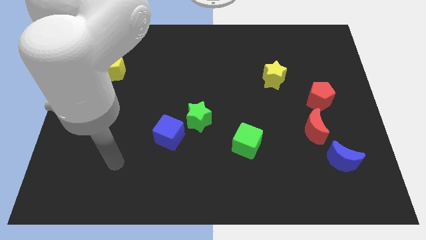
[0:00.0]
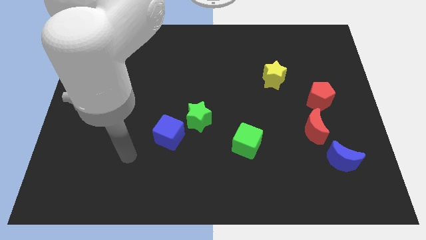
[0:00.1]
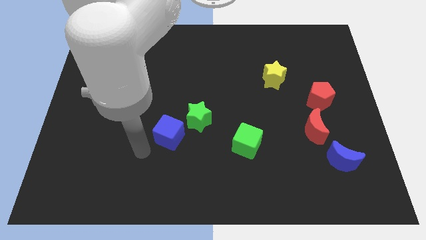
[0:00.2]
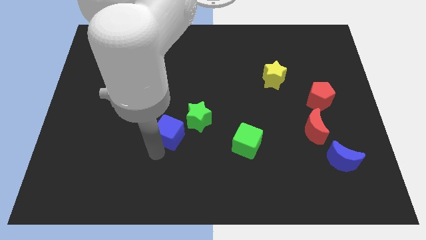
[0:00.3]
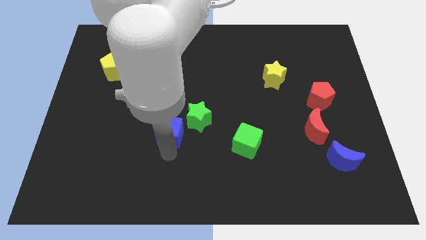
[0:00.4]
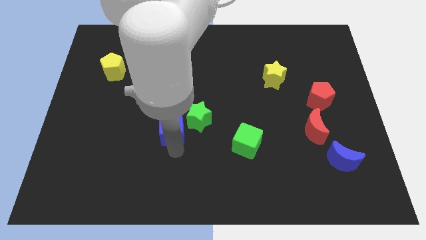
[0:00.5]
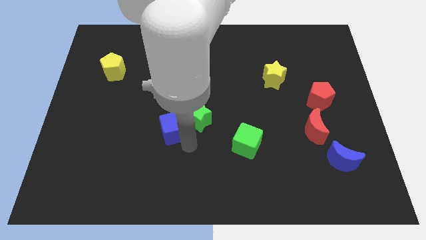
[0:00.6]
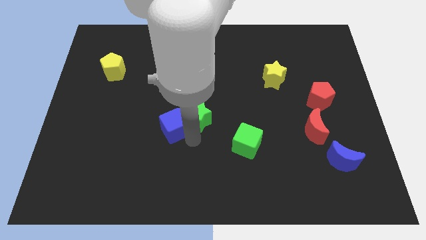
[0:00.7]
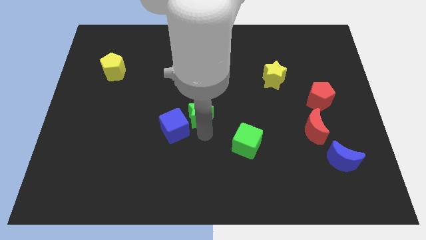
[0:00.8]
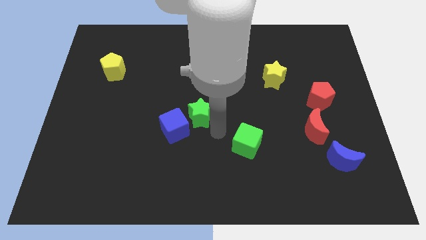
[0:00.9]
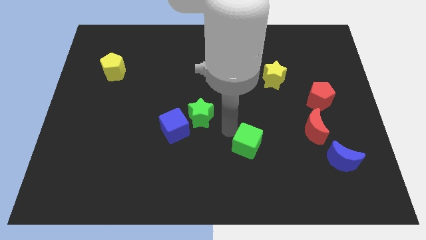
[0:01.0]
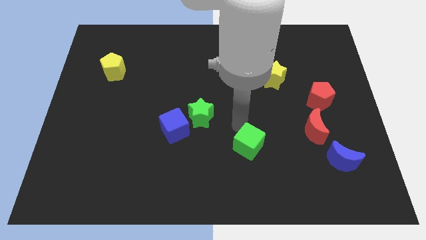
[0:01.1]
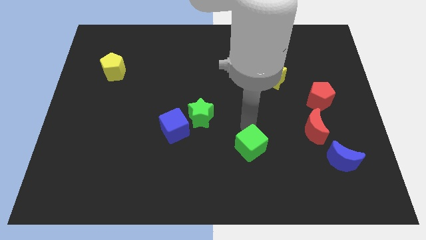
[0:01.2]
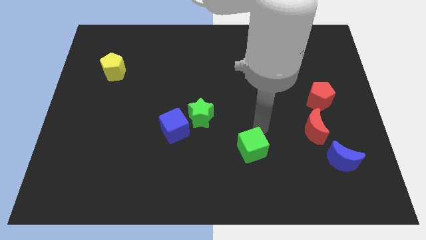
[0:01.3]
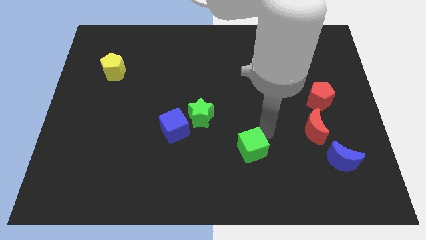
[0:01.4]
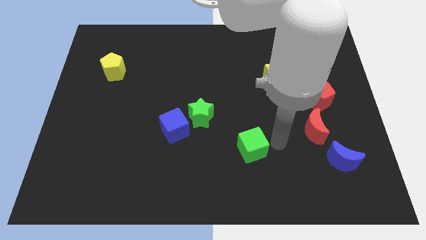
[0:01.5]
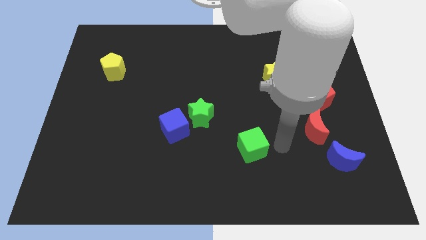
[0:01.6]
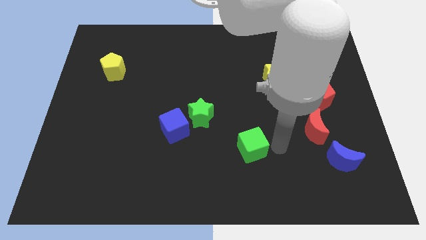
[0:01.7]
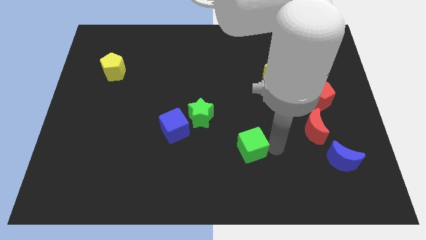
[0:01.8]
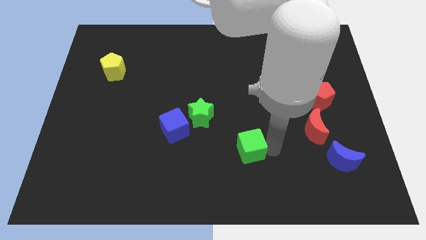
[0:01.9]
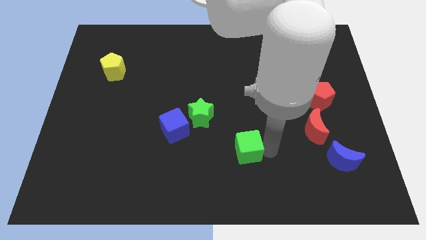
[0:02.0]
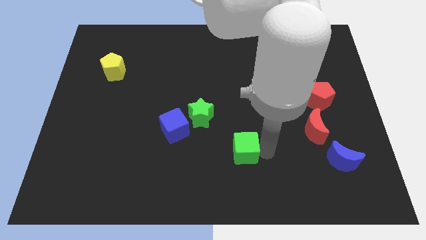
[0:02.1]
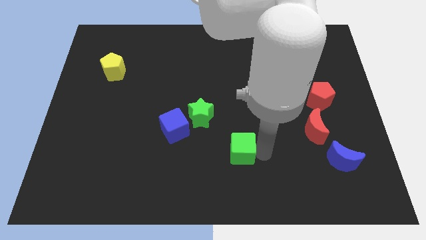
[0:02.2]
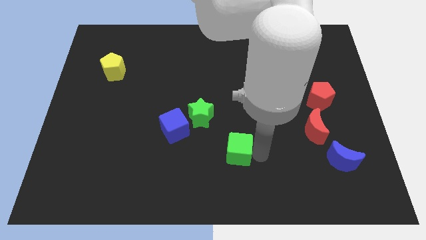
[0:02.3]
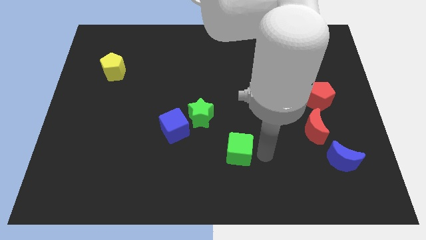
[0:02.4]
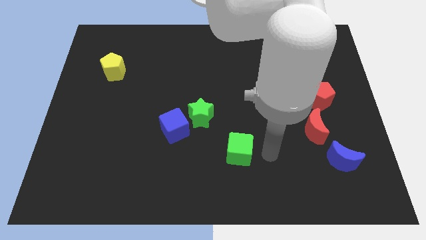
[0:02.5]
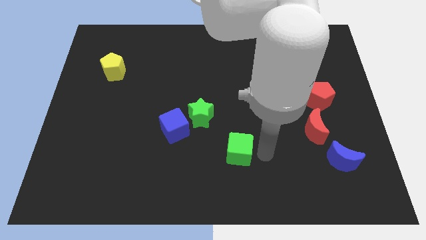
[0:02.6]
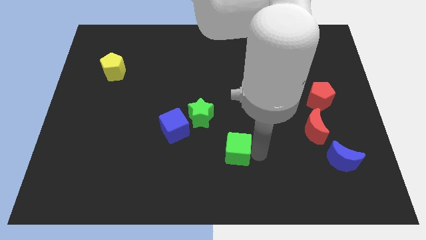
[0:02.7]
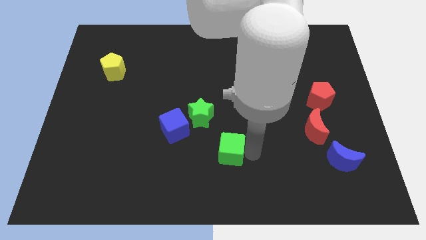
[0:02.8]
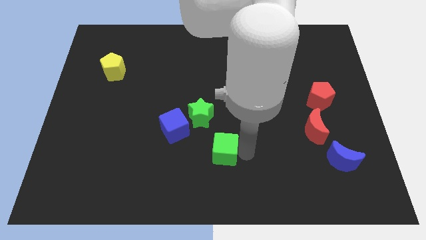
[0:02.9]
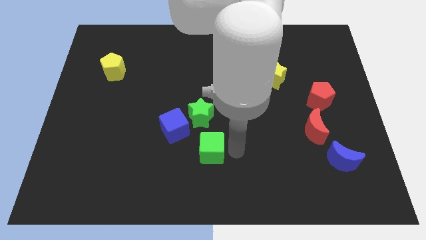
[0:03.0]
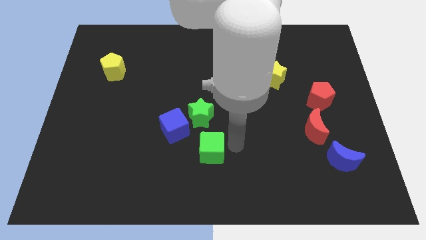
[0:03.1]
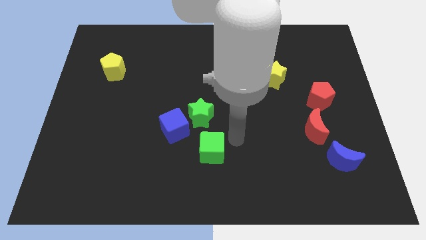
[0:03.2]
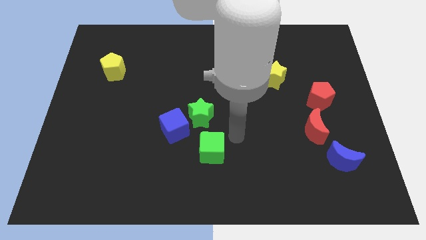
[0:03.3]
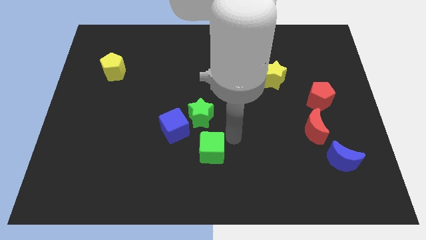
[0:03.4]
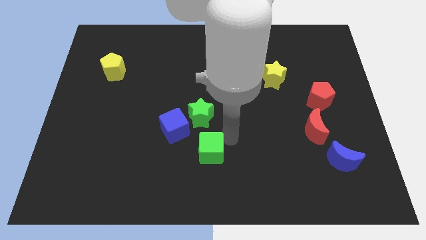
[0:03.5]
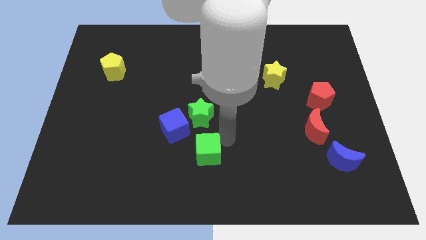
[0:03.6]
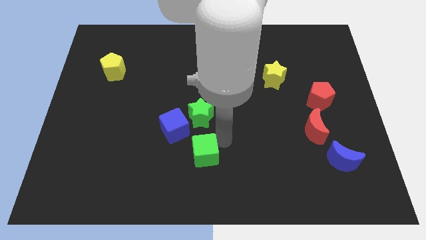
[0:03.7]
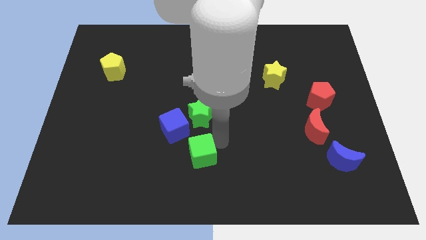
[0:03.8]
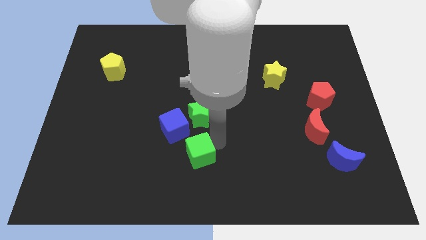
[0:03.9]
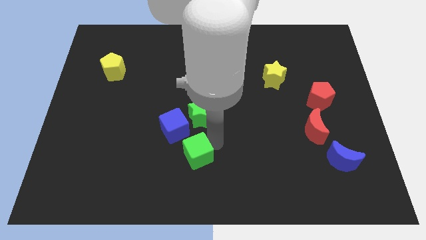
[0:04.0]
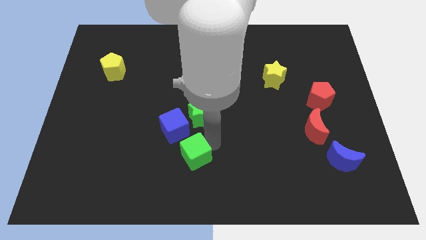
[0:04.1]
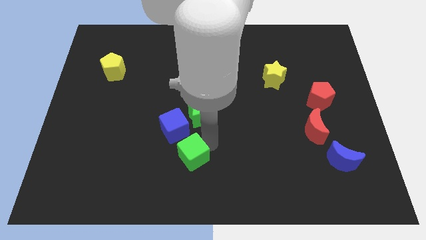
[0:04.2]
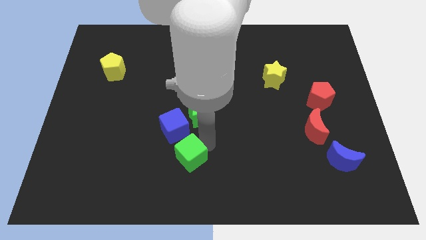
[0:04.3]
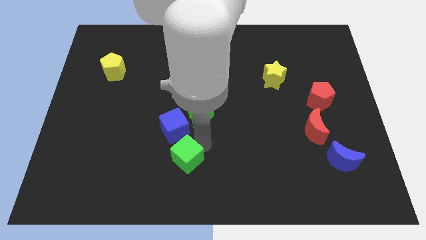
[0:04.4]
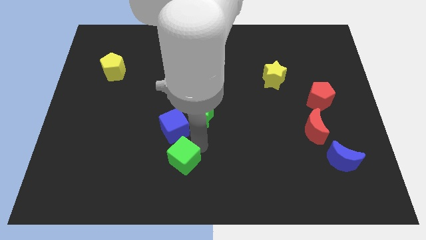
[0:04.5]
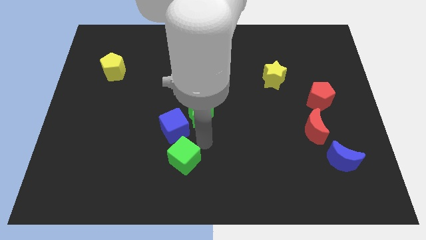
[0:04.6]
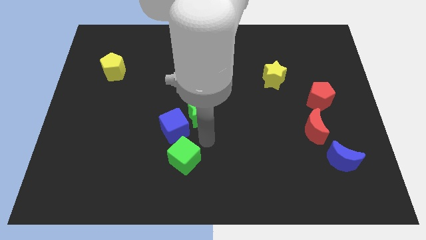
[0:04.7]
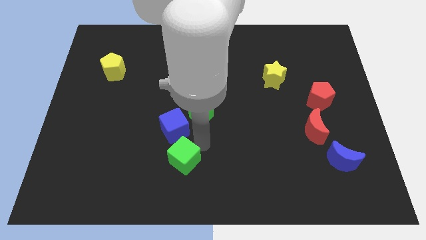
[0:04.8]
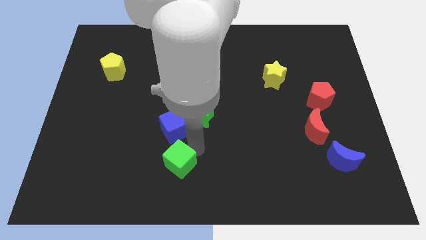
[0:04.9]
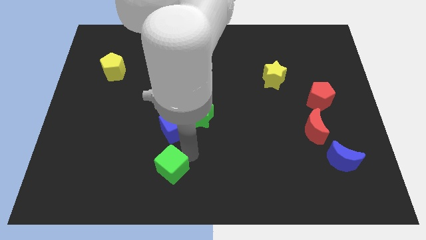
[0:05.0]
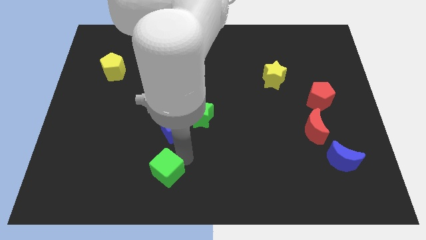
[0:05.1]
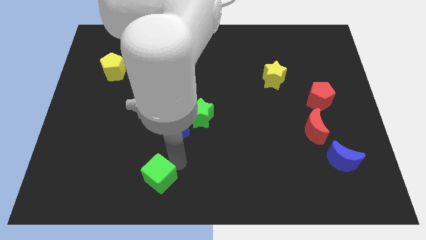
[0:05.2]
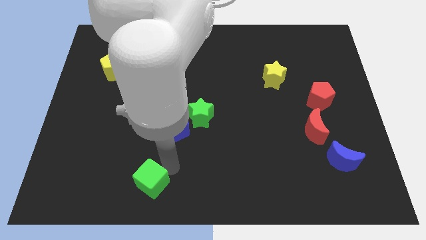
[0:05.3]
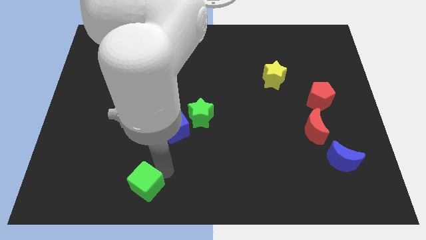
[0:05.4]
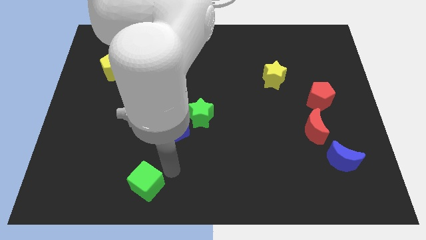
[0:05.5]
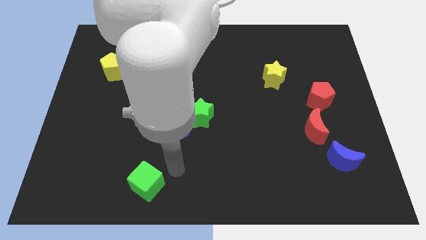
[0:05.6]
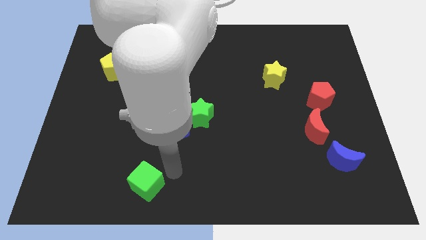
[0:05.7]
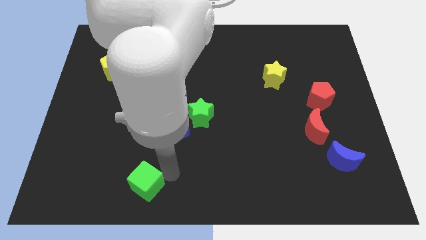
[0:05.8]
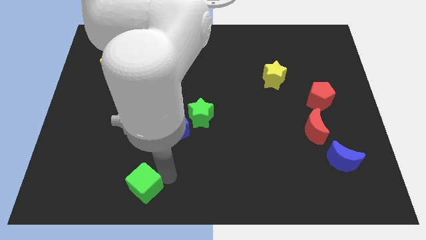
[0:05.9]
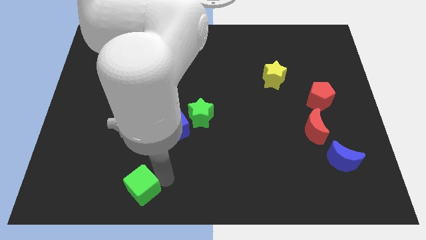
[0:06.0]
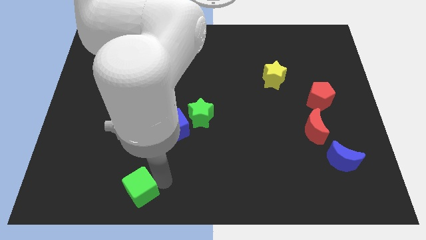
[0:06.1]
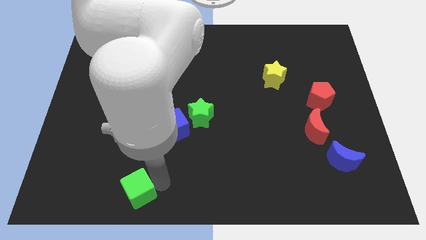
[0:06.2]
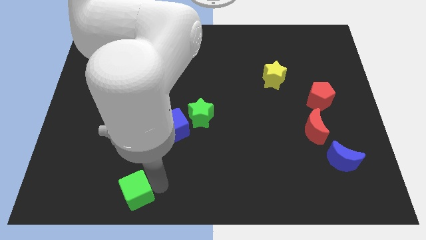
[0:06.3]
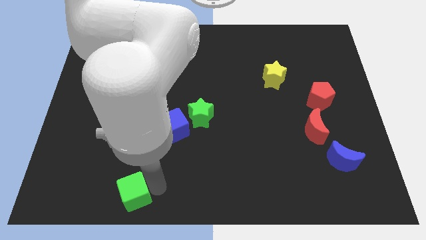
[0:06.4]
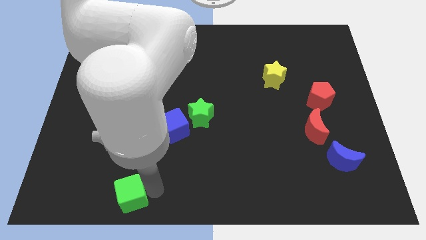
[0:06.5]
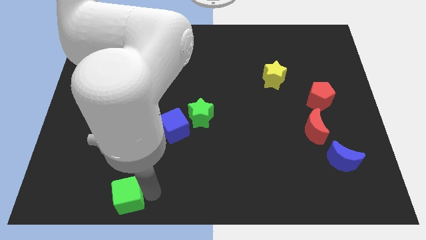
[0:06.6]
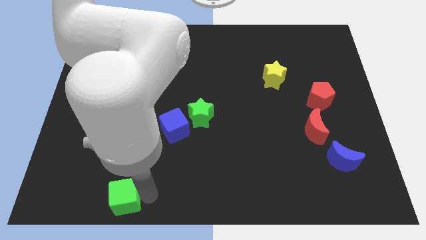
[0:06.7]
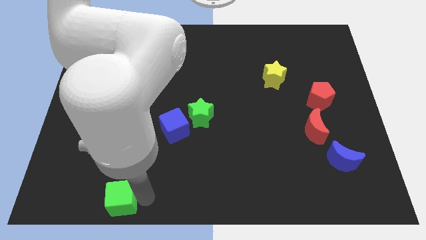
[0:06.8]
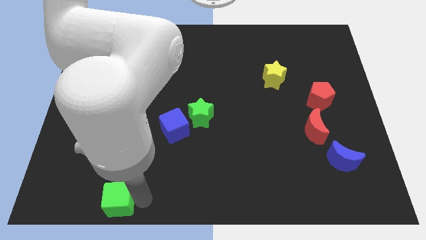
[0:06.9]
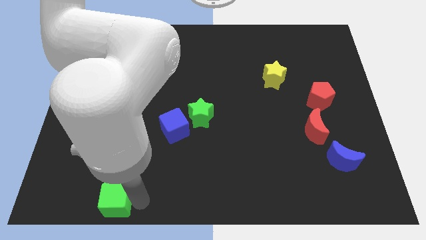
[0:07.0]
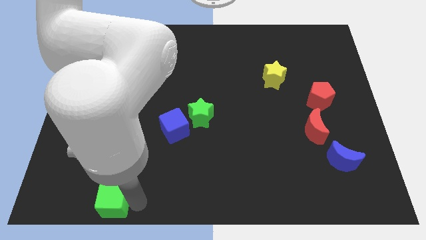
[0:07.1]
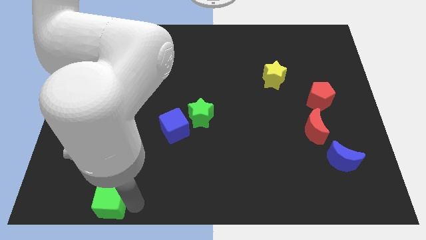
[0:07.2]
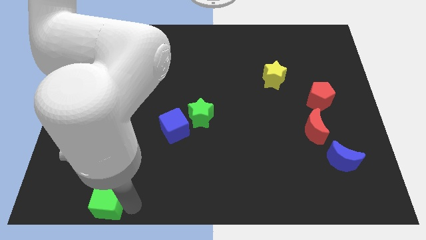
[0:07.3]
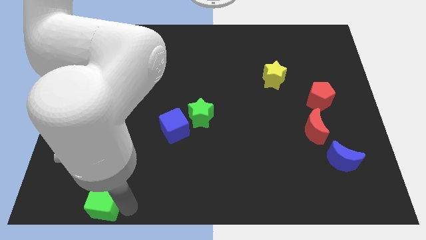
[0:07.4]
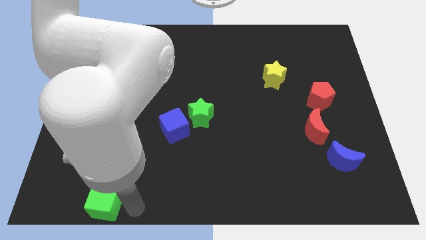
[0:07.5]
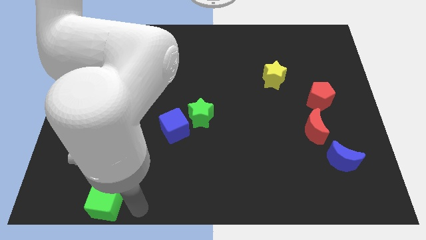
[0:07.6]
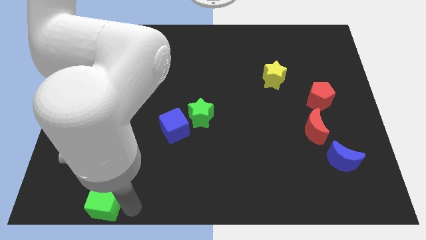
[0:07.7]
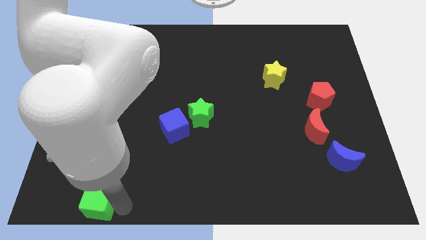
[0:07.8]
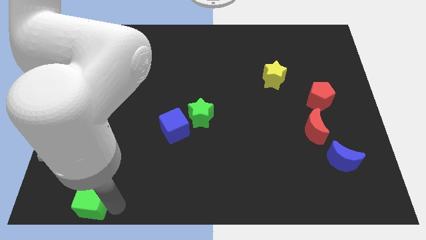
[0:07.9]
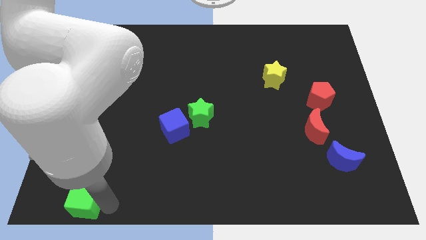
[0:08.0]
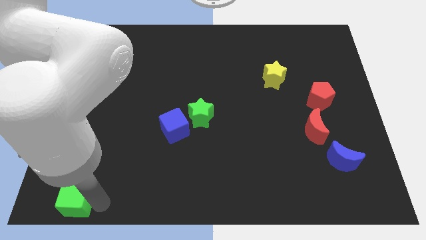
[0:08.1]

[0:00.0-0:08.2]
slide the green cube to the bottom left corner
